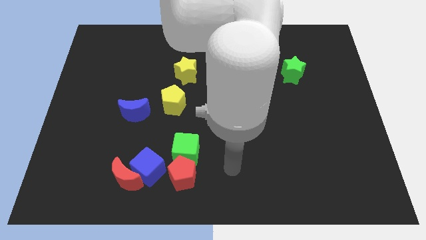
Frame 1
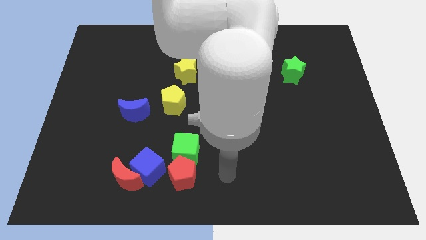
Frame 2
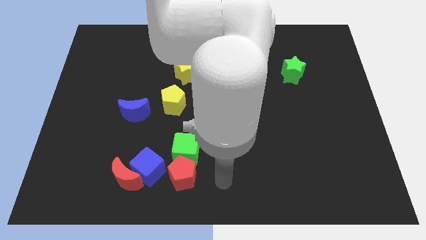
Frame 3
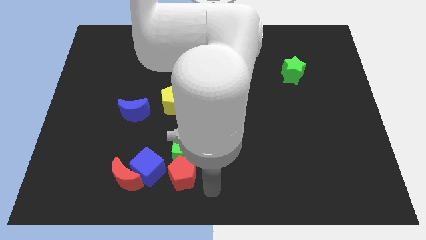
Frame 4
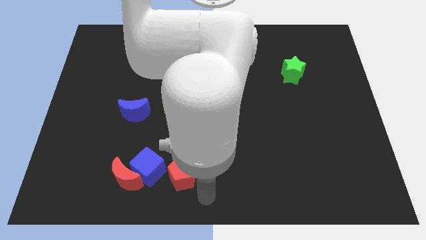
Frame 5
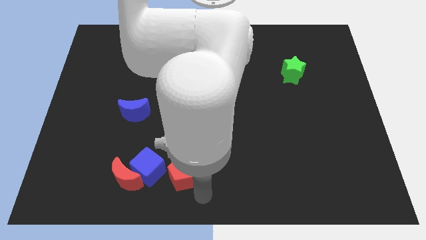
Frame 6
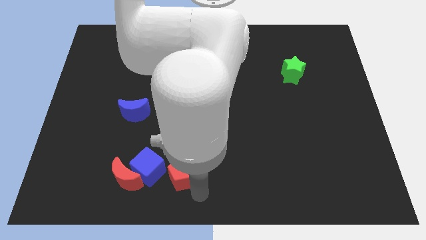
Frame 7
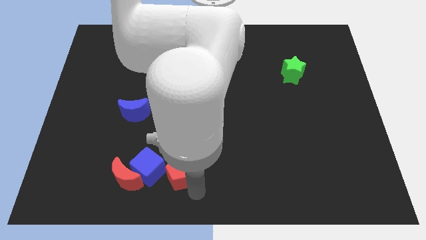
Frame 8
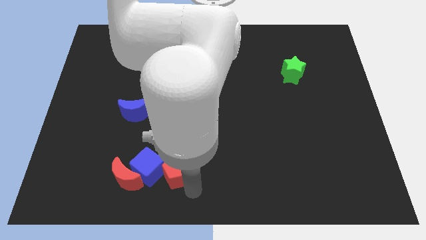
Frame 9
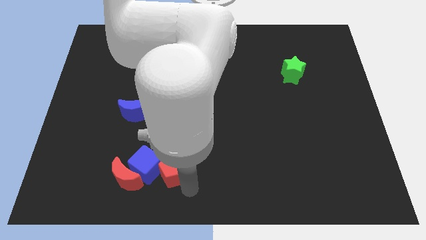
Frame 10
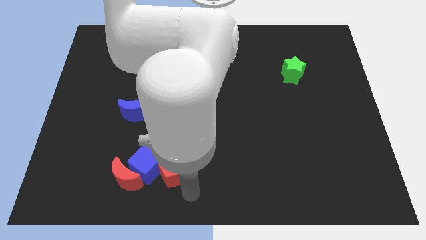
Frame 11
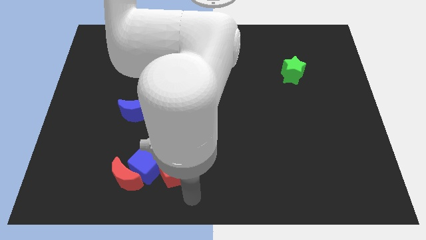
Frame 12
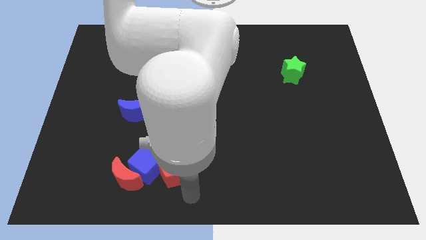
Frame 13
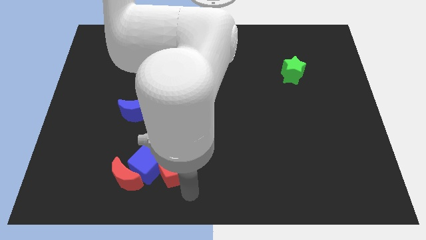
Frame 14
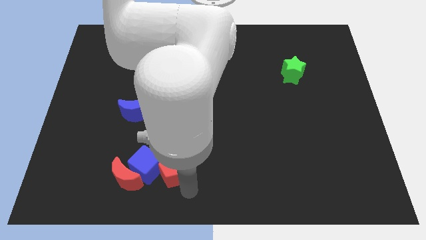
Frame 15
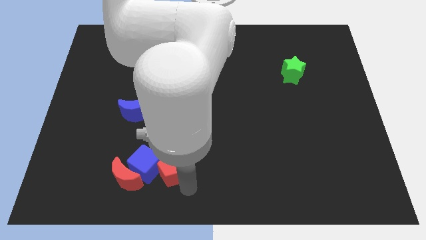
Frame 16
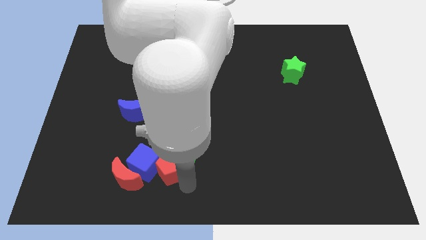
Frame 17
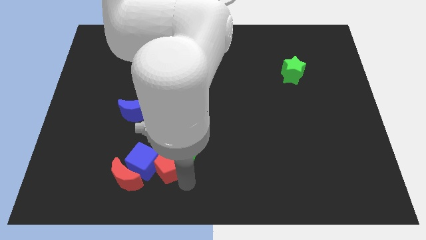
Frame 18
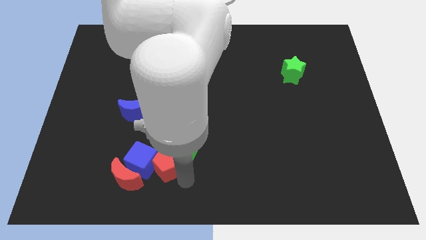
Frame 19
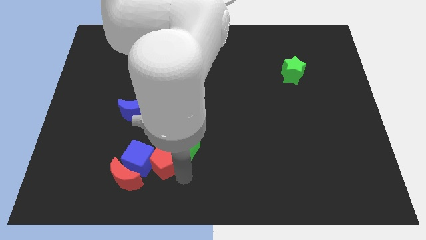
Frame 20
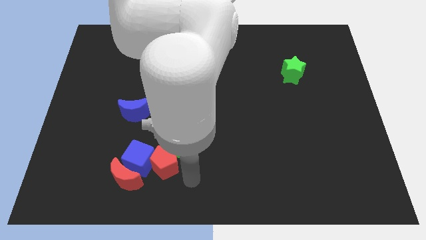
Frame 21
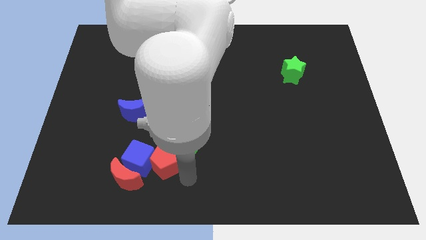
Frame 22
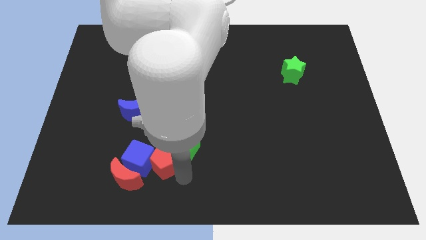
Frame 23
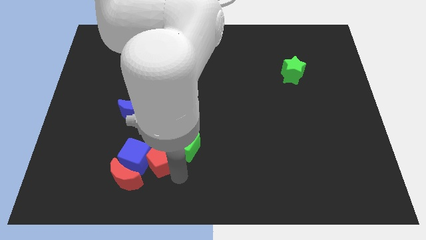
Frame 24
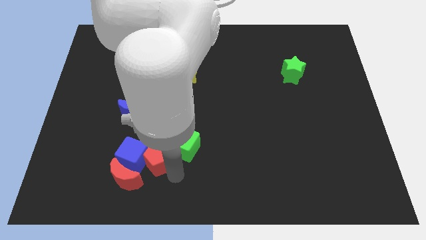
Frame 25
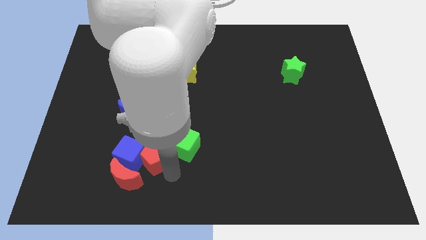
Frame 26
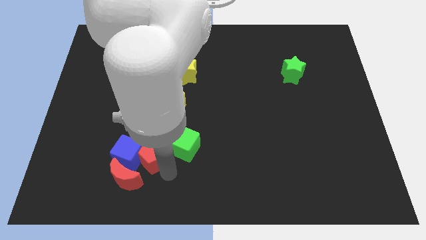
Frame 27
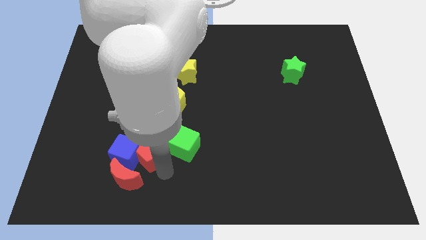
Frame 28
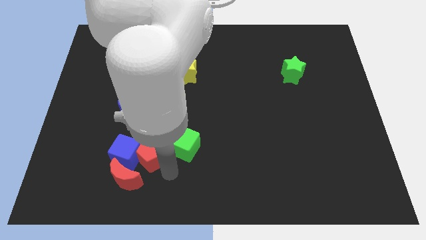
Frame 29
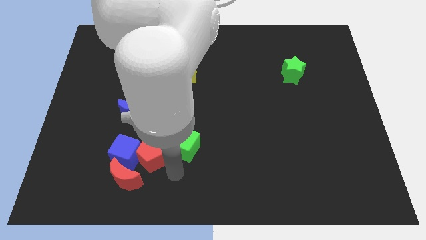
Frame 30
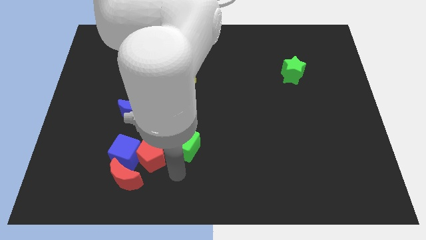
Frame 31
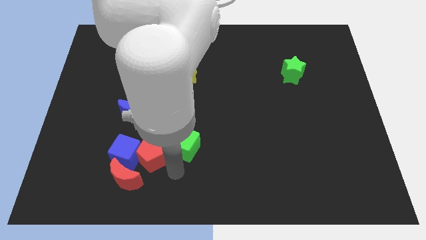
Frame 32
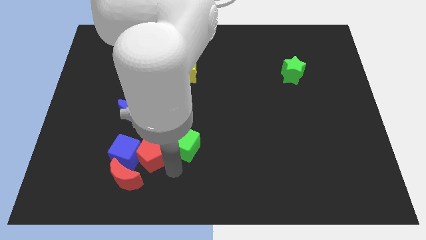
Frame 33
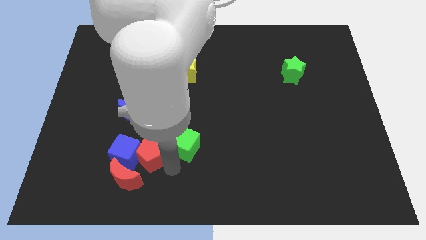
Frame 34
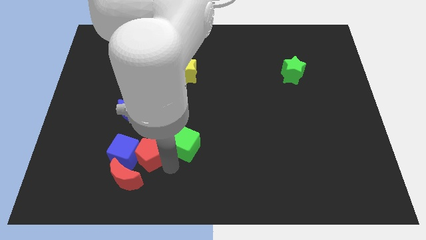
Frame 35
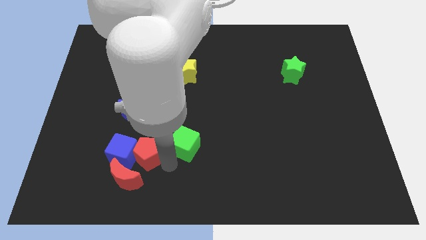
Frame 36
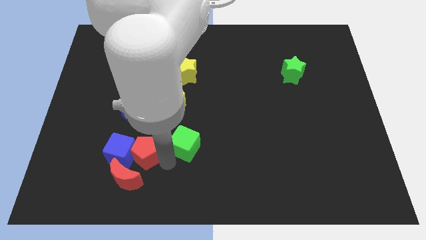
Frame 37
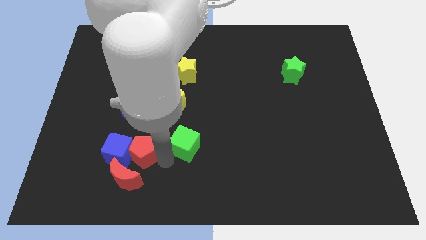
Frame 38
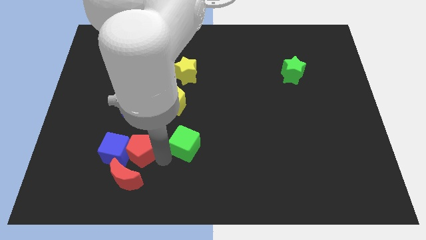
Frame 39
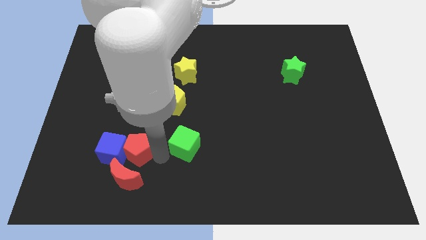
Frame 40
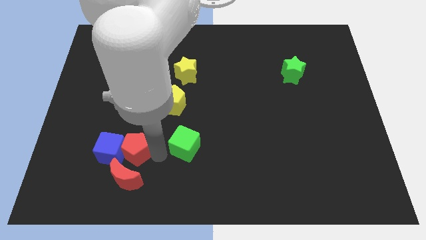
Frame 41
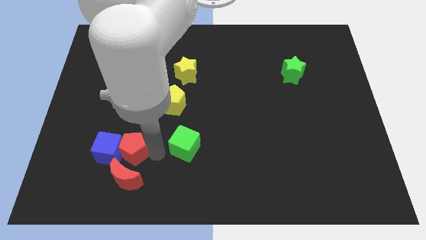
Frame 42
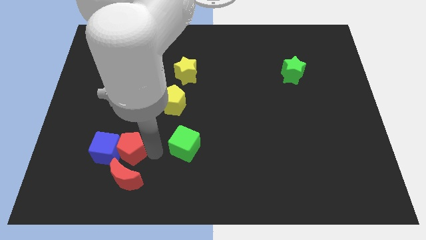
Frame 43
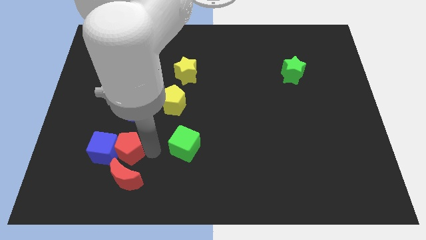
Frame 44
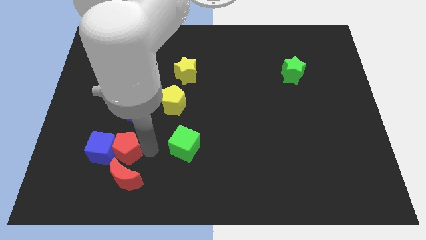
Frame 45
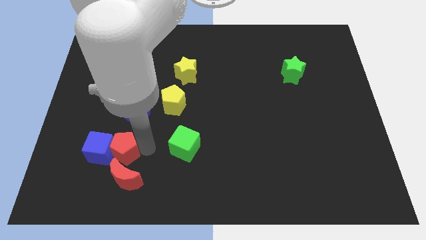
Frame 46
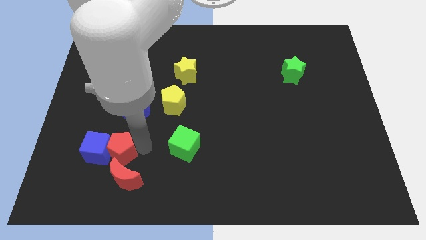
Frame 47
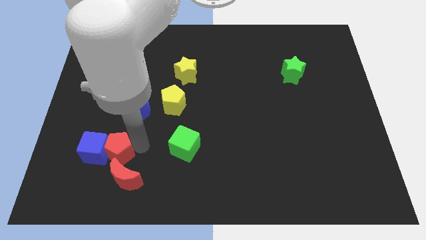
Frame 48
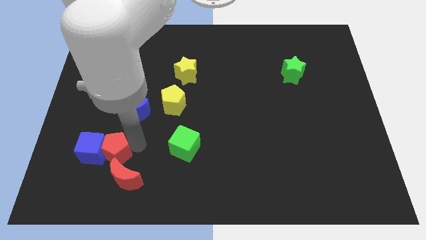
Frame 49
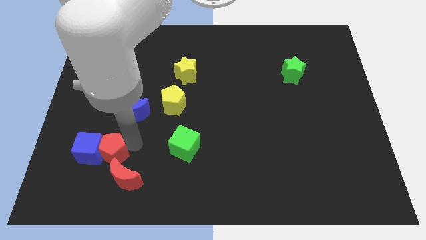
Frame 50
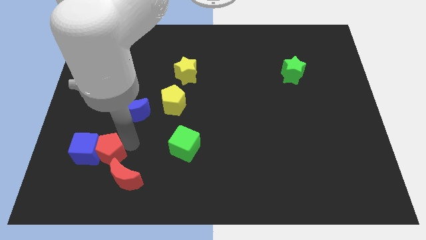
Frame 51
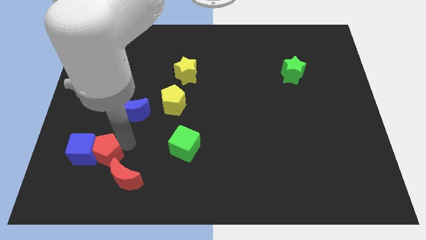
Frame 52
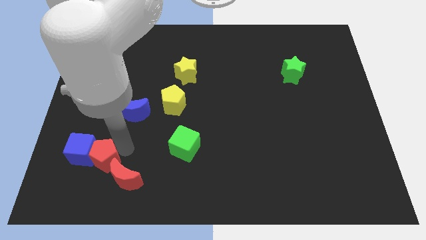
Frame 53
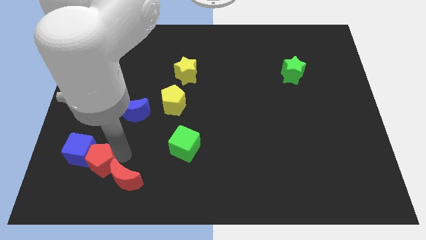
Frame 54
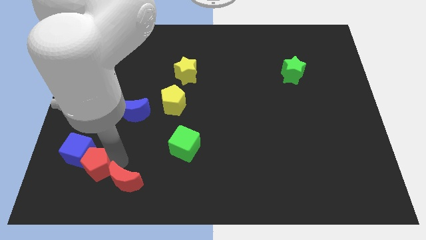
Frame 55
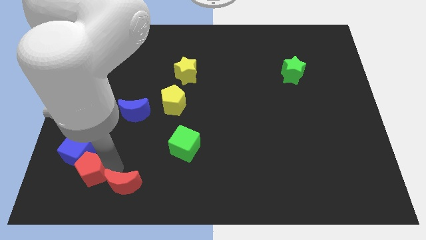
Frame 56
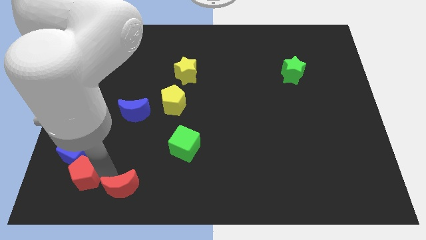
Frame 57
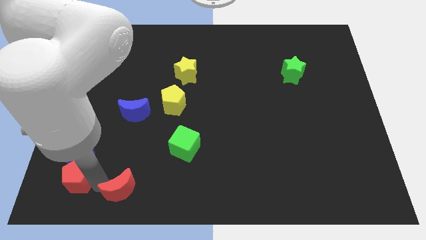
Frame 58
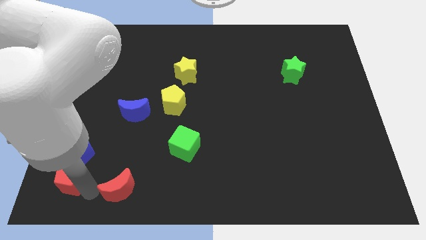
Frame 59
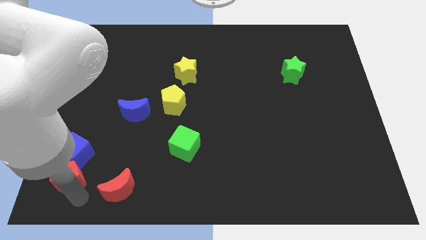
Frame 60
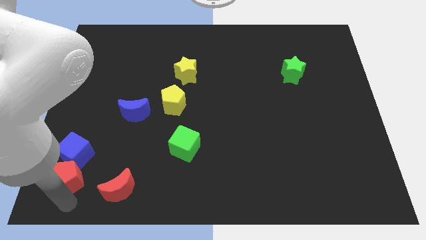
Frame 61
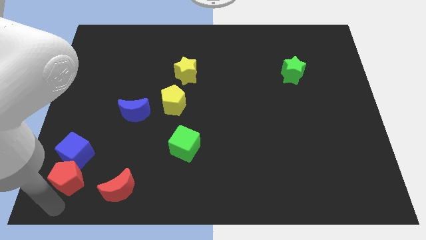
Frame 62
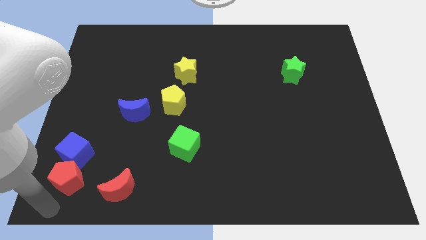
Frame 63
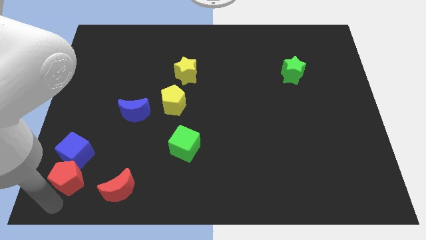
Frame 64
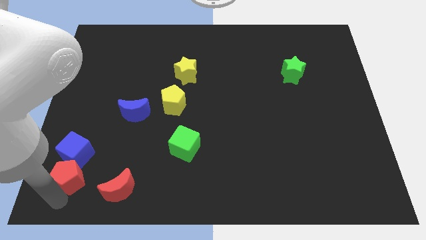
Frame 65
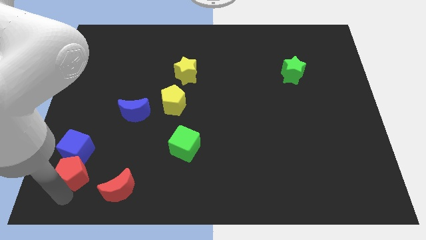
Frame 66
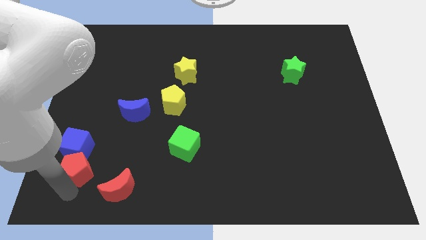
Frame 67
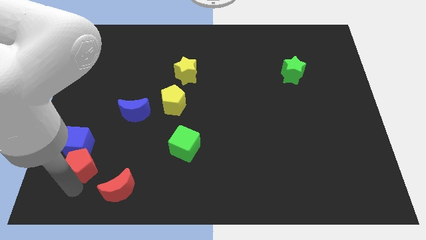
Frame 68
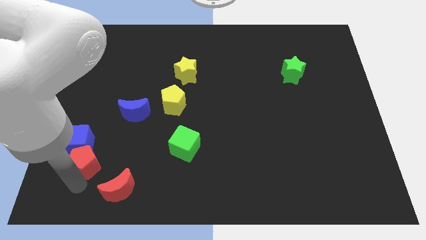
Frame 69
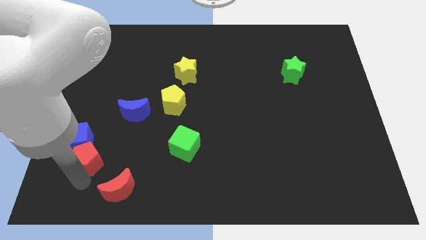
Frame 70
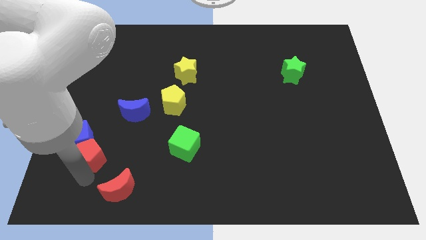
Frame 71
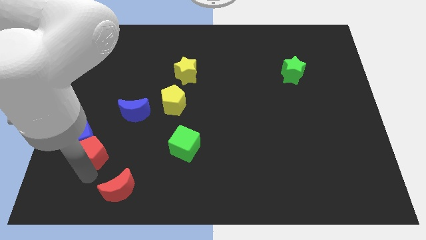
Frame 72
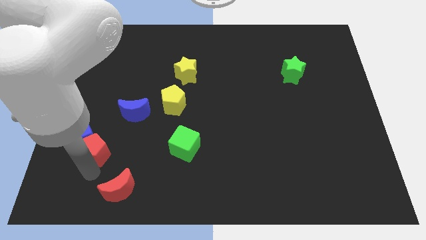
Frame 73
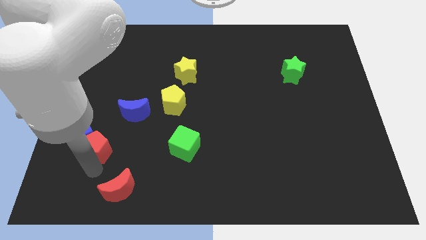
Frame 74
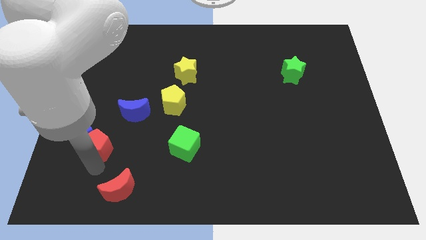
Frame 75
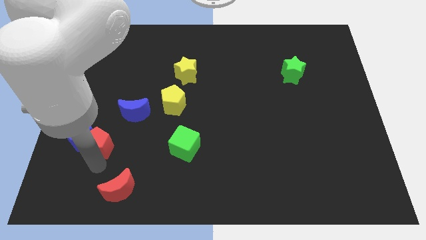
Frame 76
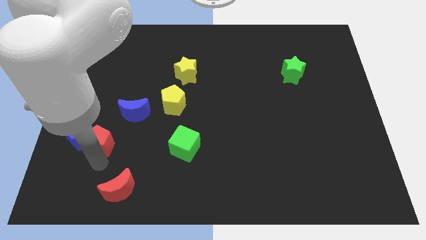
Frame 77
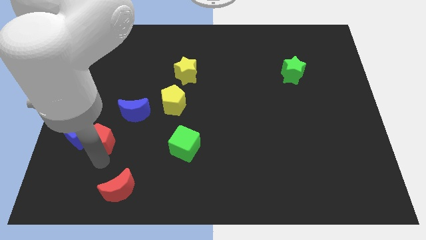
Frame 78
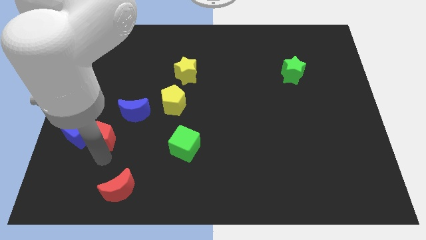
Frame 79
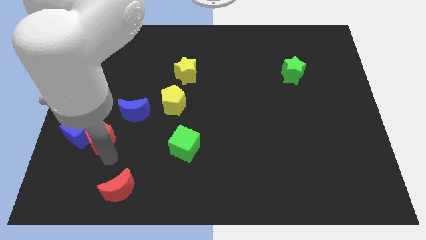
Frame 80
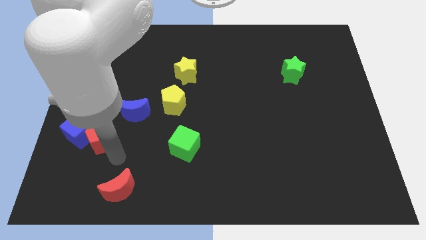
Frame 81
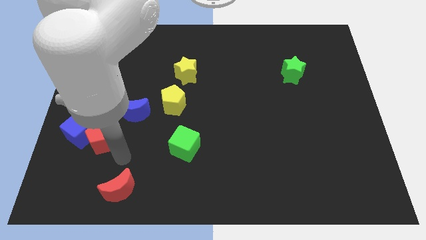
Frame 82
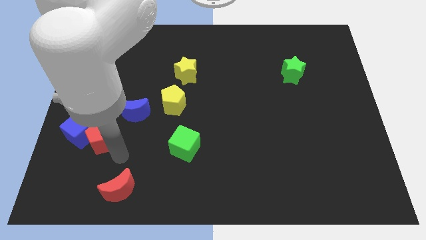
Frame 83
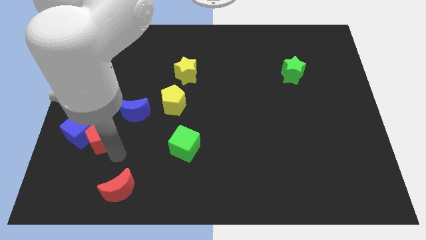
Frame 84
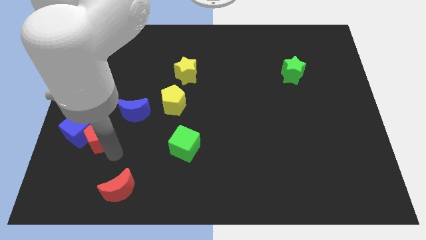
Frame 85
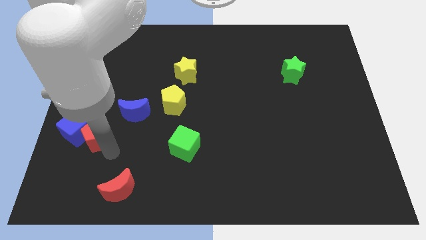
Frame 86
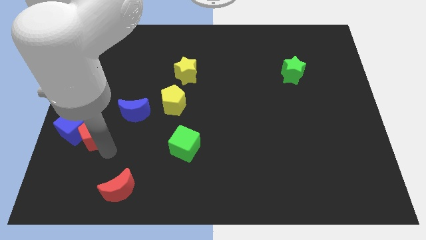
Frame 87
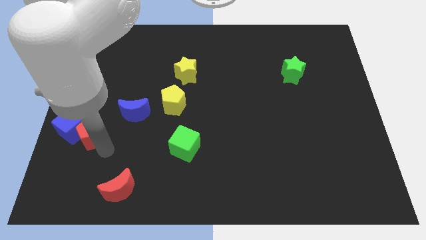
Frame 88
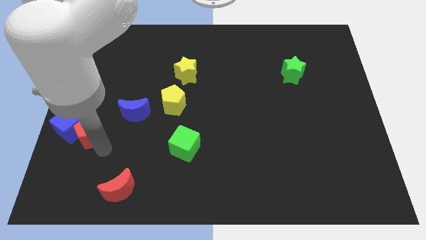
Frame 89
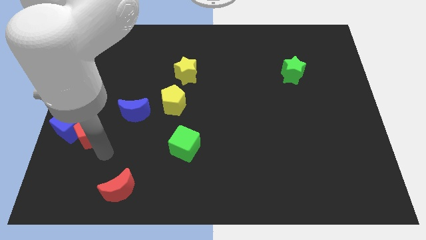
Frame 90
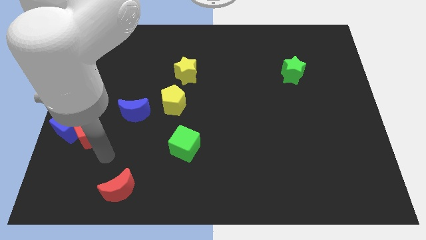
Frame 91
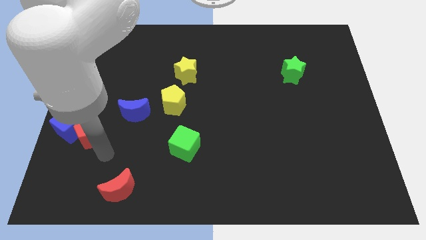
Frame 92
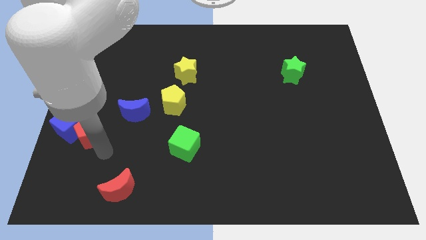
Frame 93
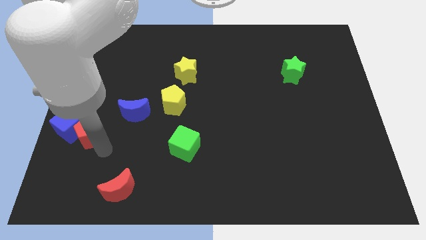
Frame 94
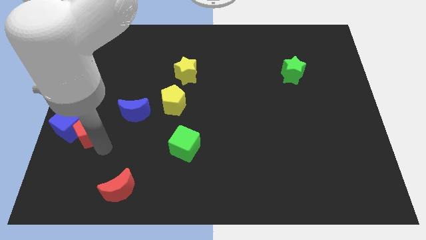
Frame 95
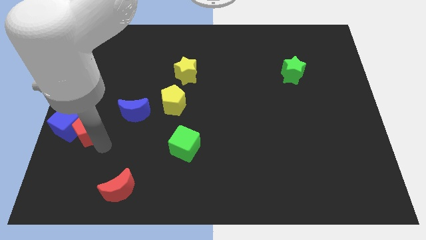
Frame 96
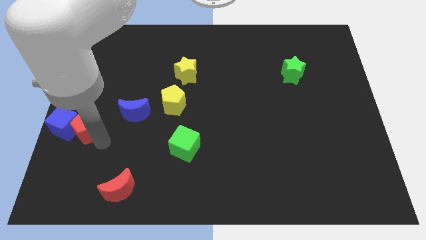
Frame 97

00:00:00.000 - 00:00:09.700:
push the red pentagon to the left side
